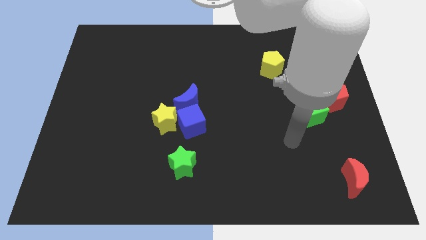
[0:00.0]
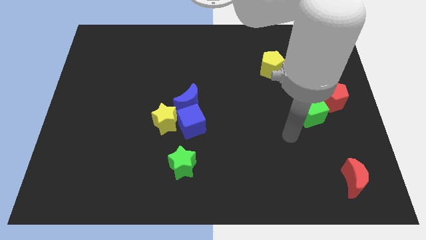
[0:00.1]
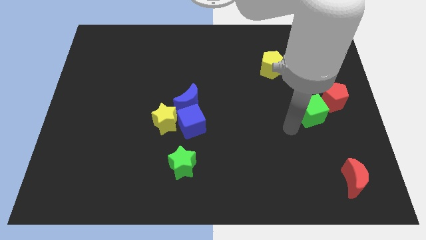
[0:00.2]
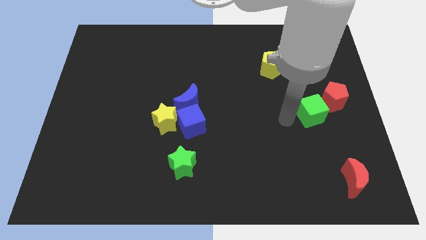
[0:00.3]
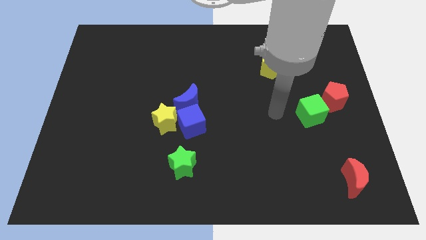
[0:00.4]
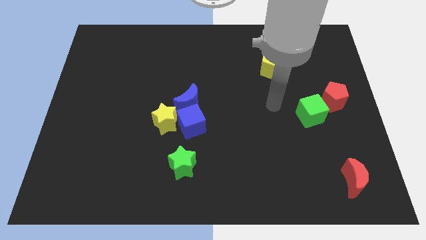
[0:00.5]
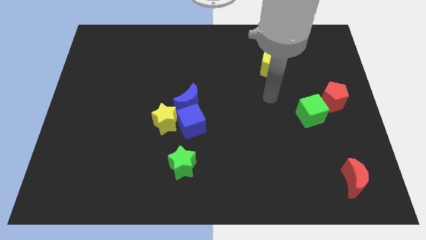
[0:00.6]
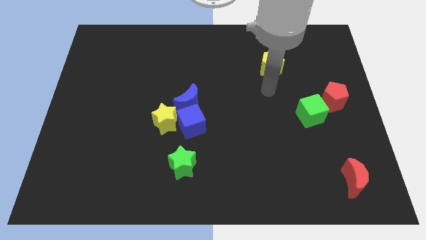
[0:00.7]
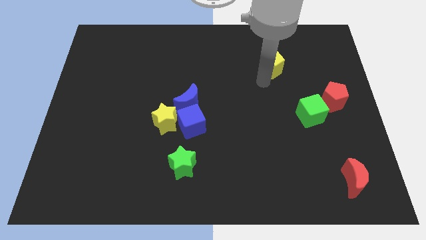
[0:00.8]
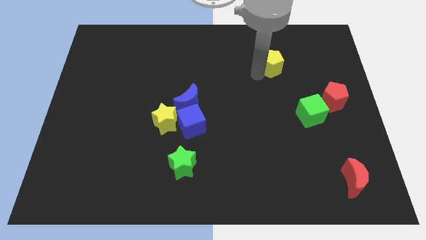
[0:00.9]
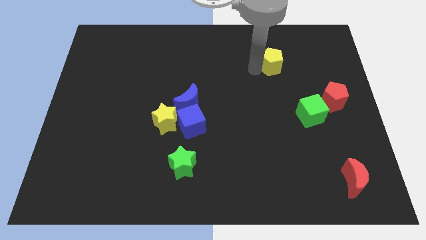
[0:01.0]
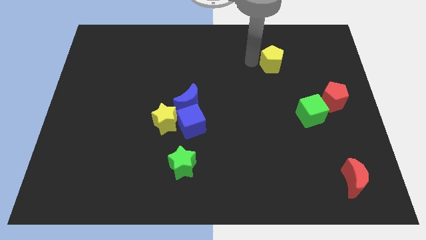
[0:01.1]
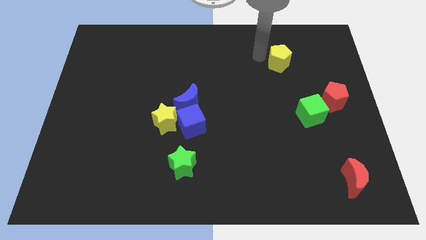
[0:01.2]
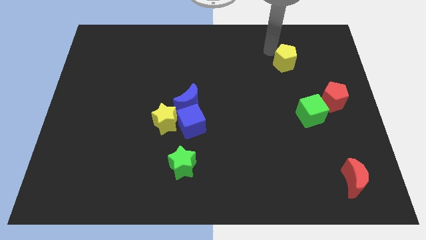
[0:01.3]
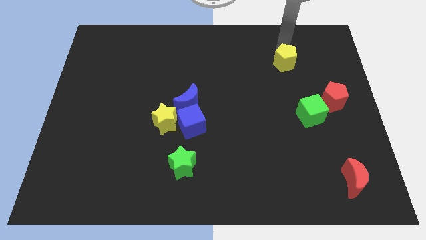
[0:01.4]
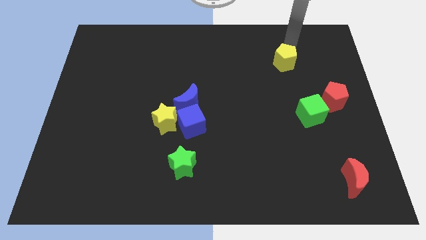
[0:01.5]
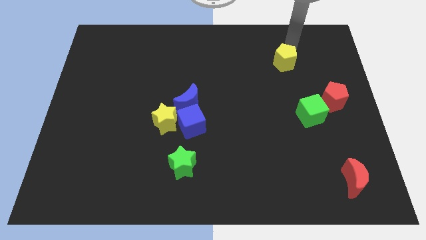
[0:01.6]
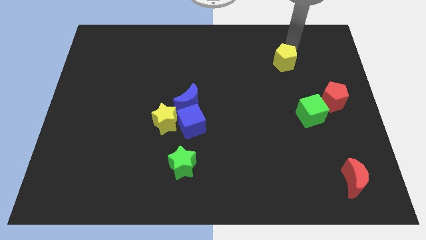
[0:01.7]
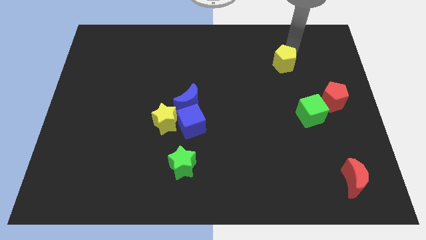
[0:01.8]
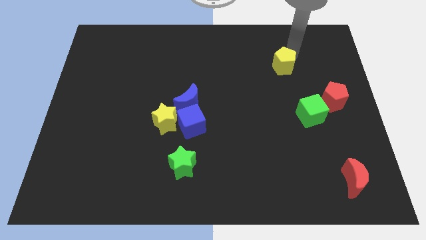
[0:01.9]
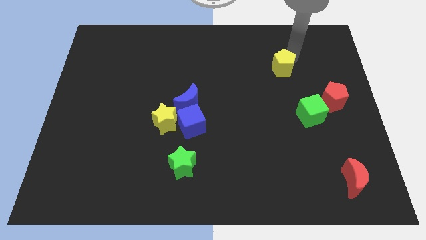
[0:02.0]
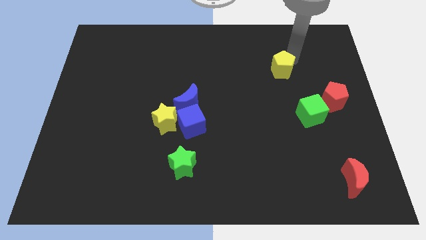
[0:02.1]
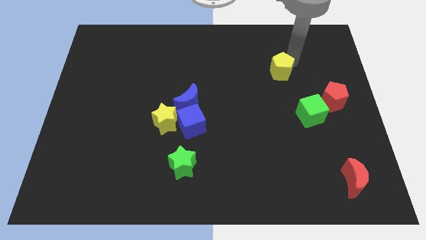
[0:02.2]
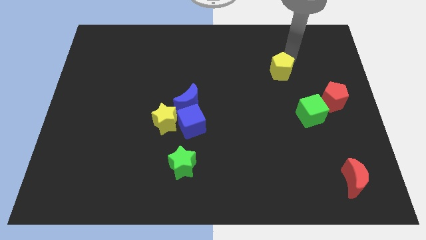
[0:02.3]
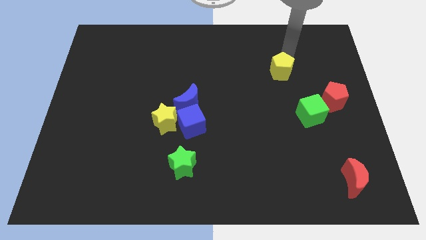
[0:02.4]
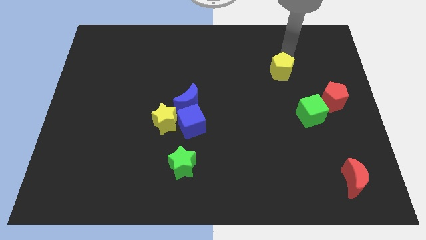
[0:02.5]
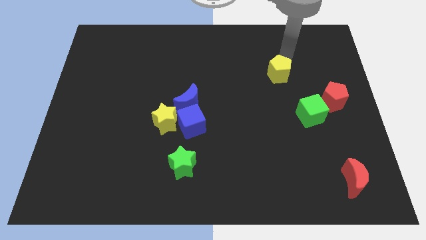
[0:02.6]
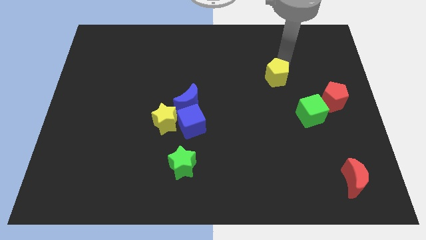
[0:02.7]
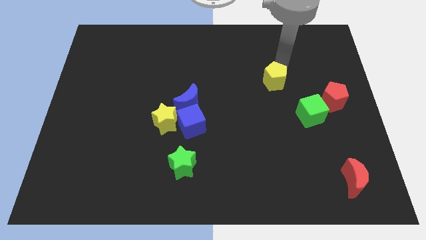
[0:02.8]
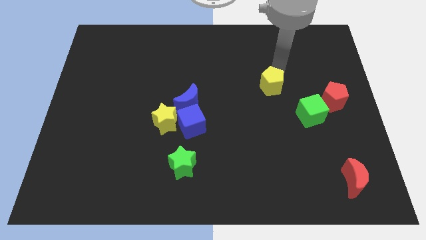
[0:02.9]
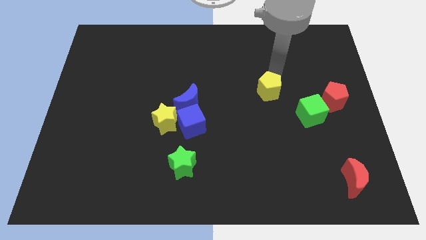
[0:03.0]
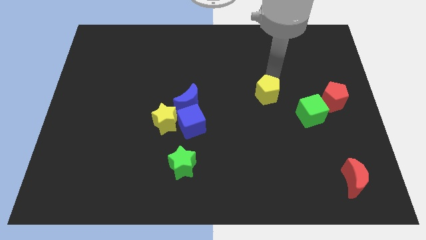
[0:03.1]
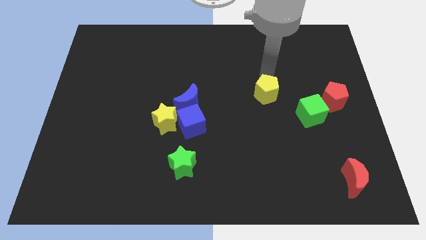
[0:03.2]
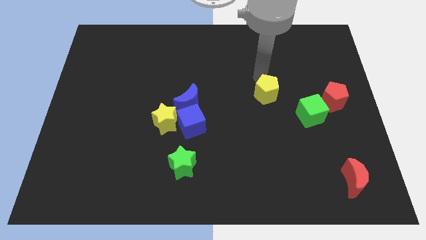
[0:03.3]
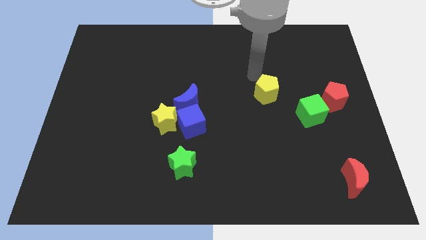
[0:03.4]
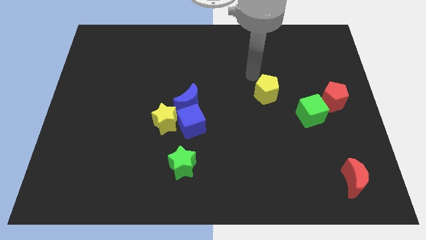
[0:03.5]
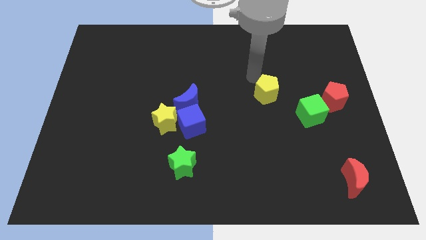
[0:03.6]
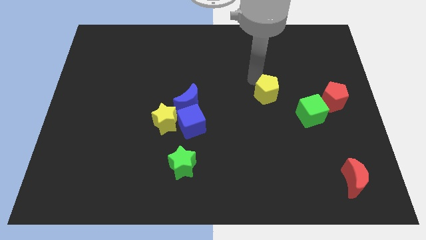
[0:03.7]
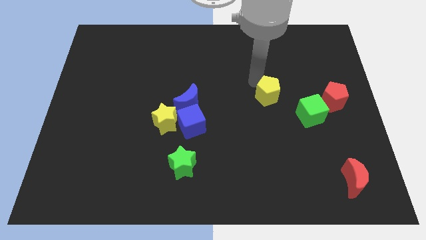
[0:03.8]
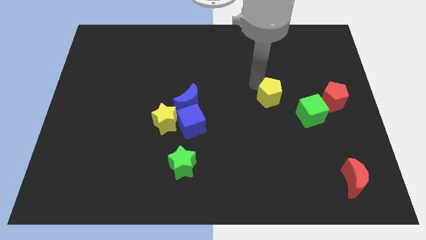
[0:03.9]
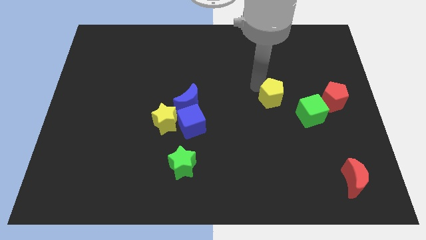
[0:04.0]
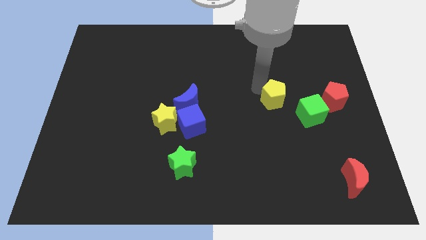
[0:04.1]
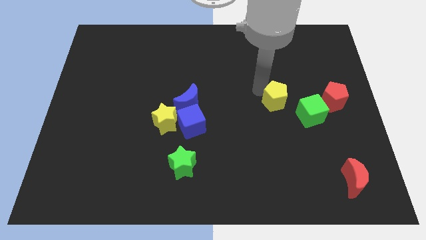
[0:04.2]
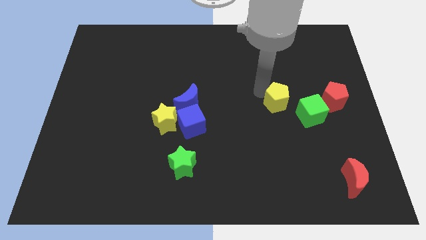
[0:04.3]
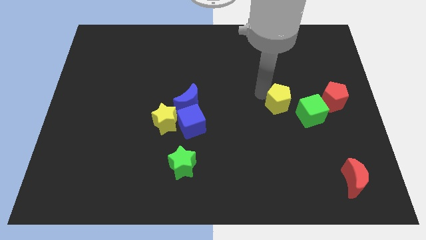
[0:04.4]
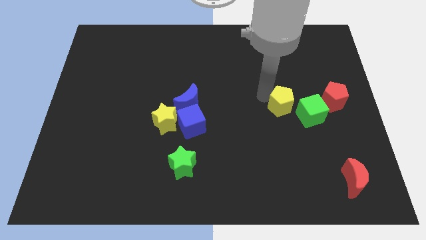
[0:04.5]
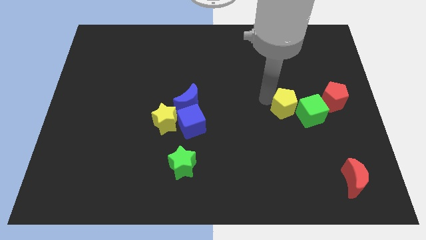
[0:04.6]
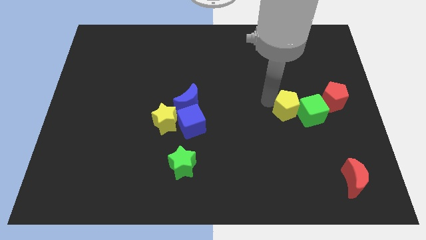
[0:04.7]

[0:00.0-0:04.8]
put the yellow pentagon to the bottom left side of the green cube

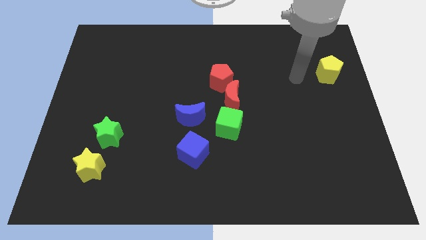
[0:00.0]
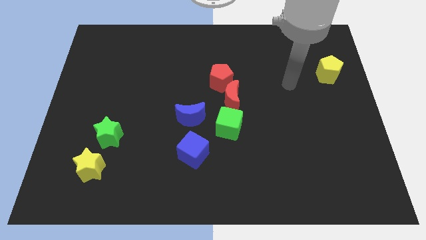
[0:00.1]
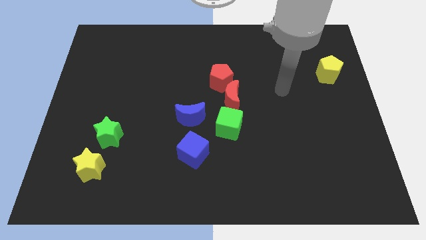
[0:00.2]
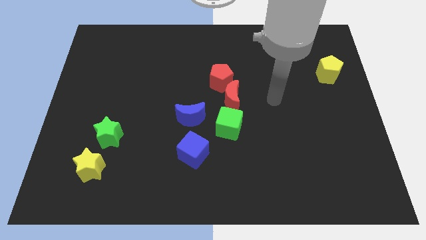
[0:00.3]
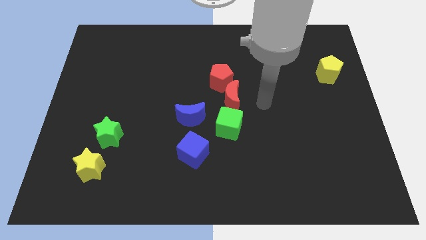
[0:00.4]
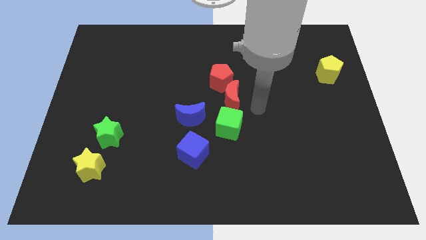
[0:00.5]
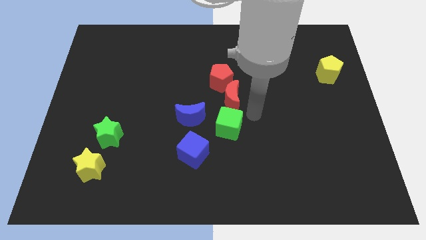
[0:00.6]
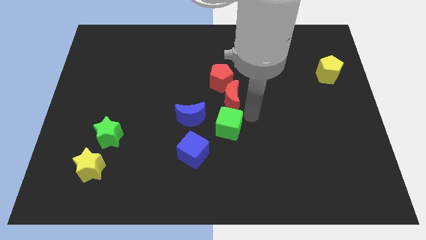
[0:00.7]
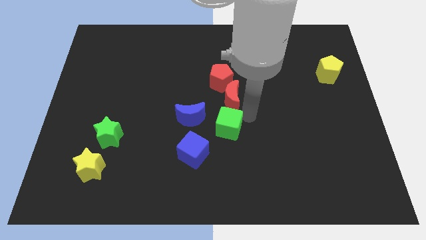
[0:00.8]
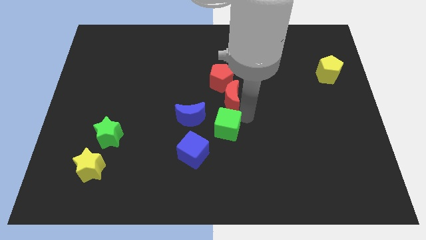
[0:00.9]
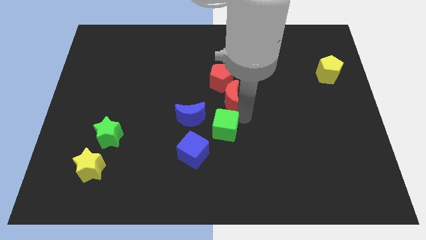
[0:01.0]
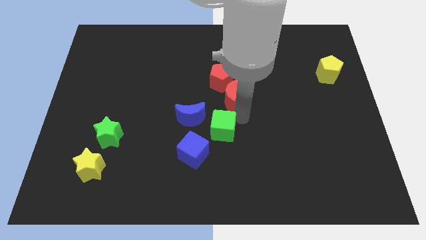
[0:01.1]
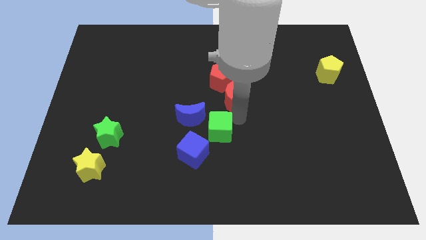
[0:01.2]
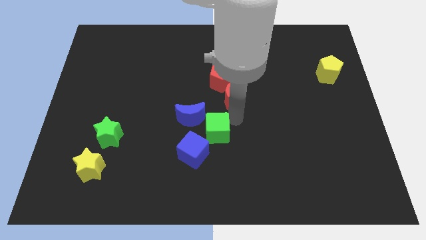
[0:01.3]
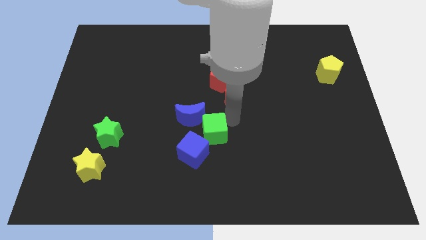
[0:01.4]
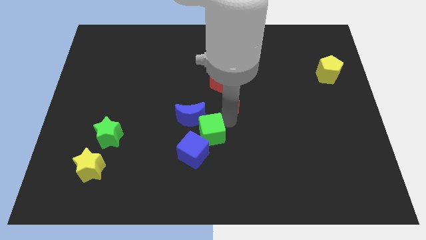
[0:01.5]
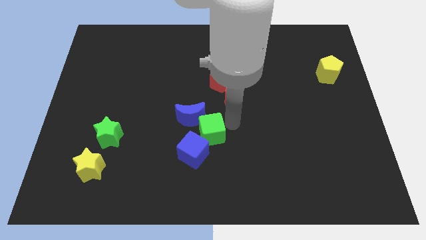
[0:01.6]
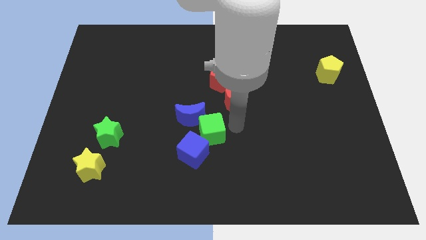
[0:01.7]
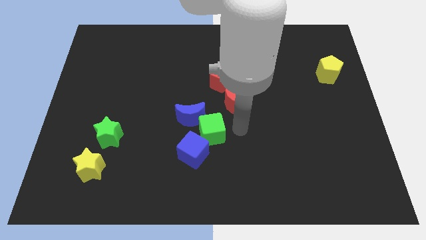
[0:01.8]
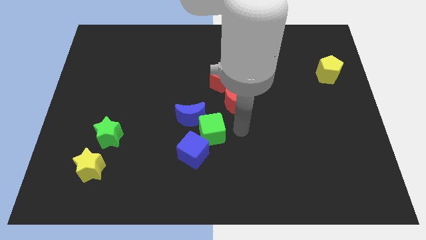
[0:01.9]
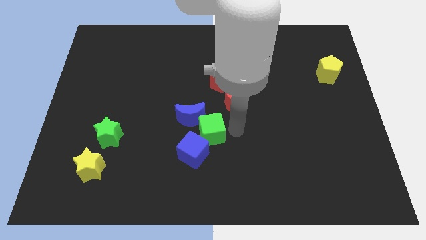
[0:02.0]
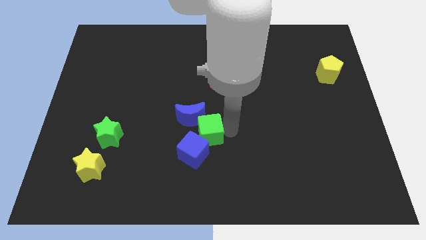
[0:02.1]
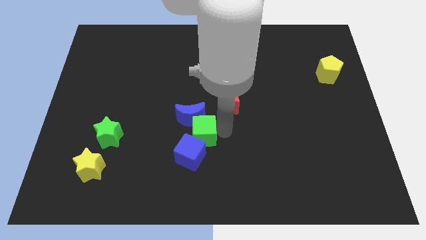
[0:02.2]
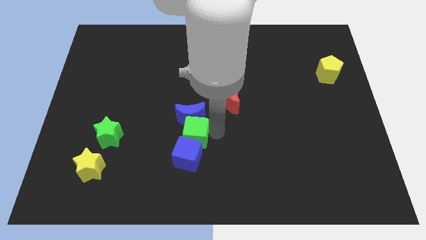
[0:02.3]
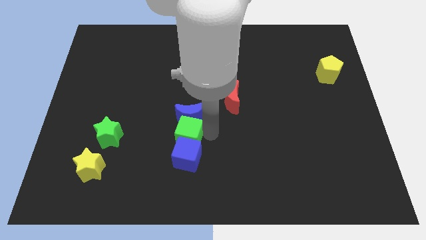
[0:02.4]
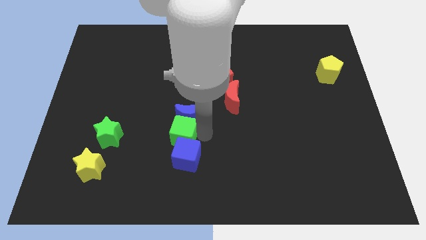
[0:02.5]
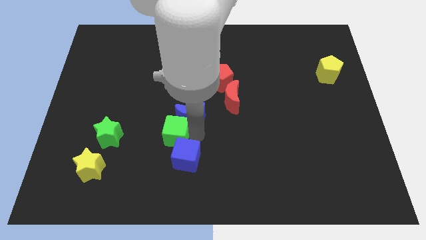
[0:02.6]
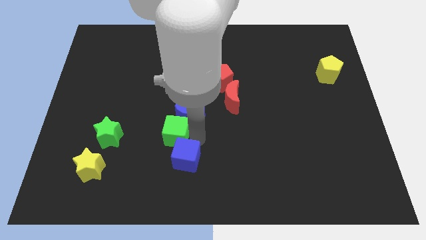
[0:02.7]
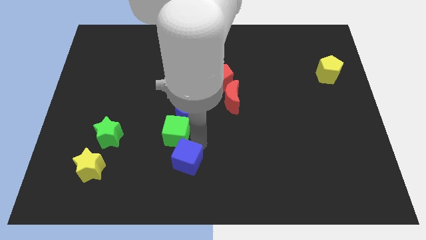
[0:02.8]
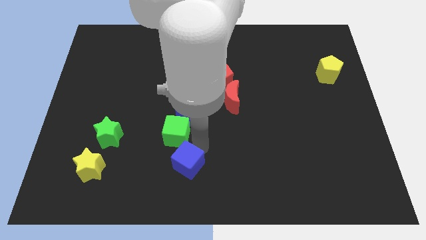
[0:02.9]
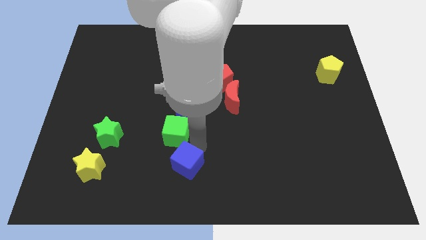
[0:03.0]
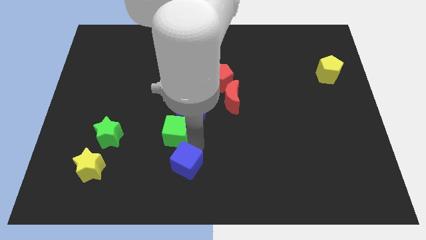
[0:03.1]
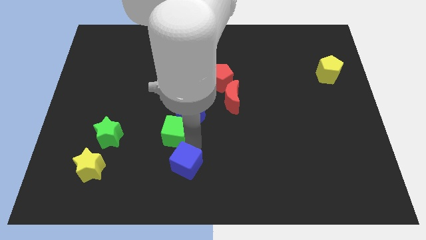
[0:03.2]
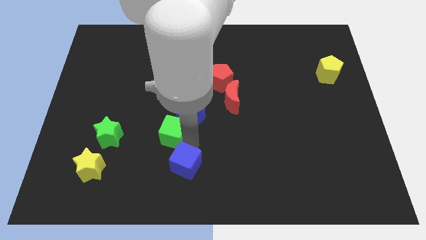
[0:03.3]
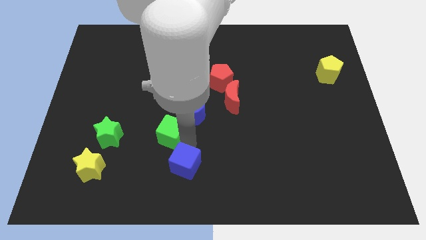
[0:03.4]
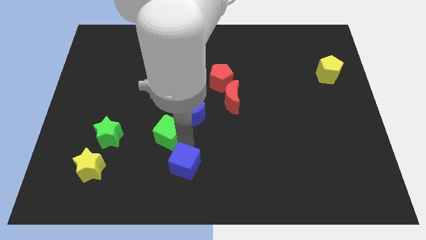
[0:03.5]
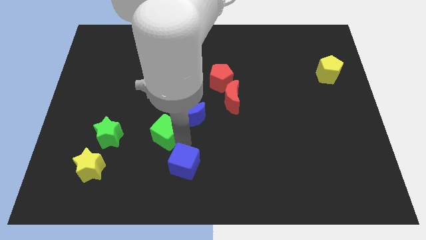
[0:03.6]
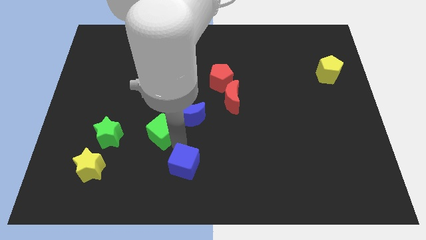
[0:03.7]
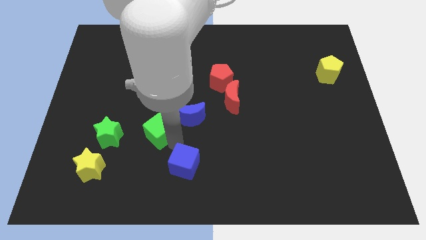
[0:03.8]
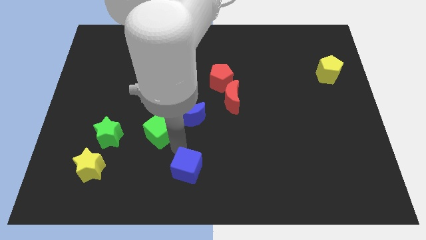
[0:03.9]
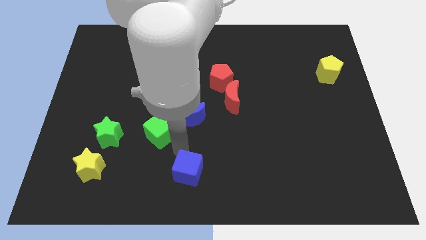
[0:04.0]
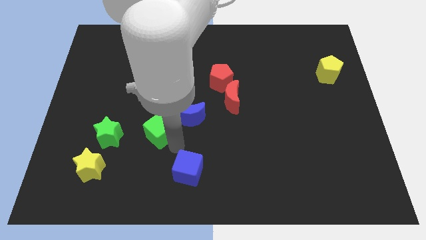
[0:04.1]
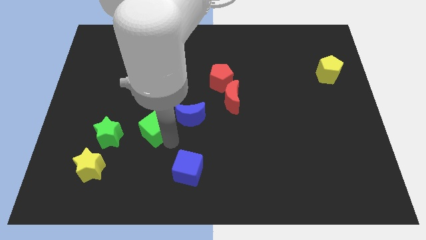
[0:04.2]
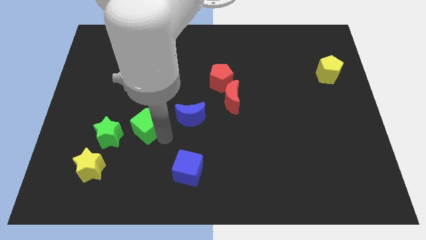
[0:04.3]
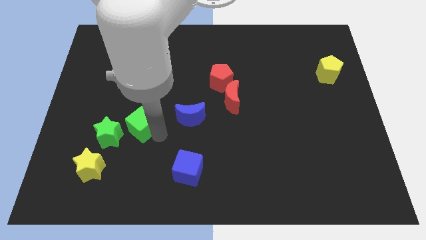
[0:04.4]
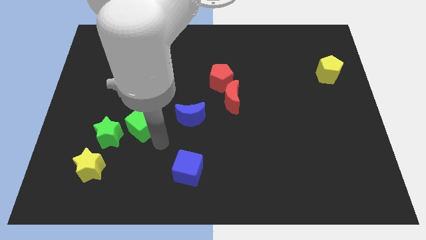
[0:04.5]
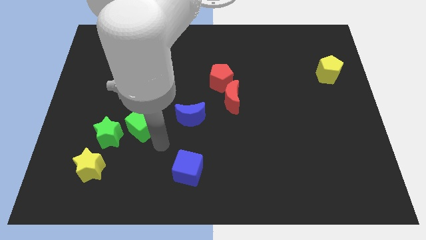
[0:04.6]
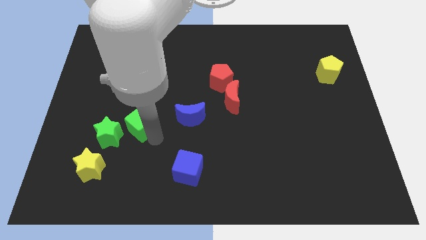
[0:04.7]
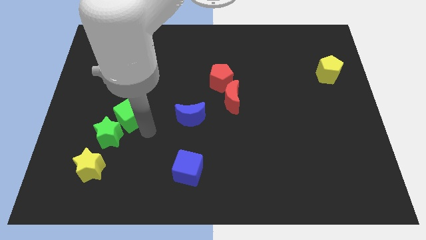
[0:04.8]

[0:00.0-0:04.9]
put the green cube above the green star
